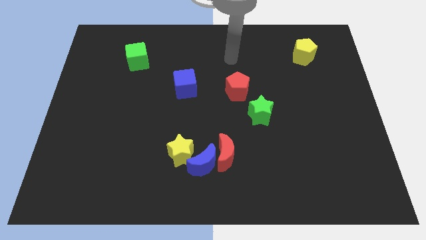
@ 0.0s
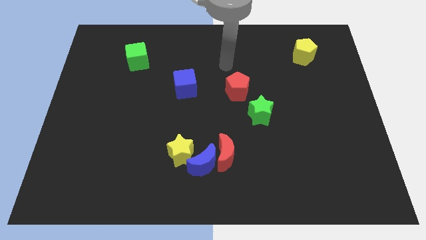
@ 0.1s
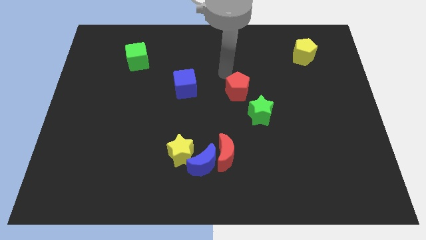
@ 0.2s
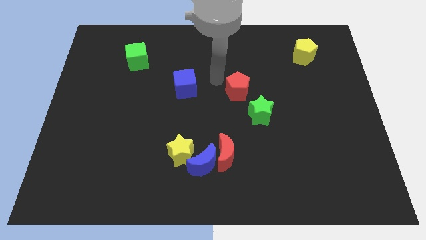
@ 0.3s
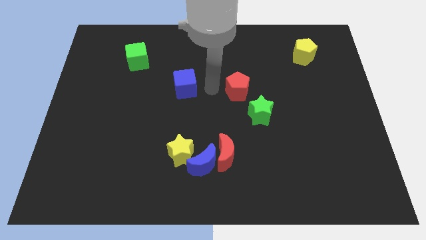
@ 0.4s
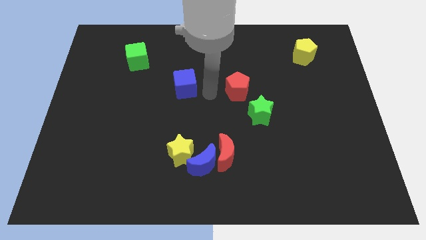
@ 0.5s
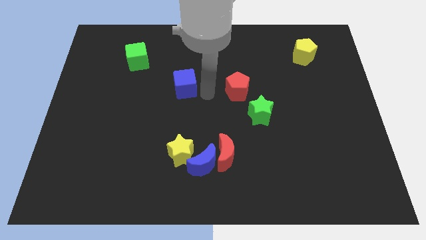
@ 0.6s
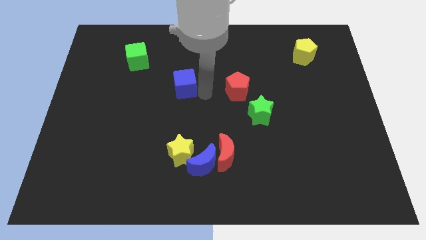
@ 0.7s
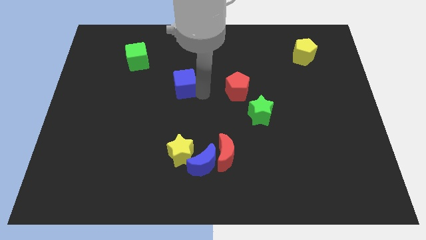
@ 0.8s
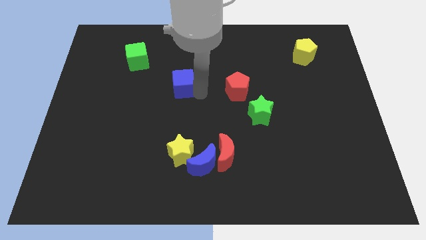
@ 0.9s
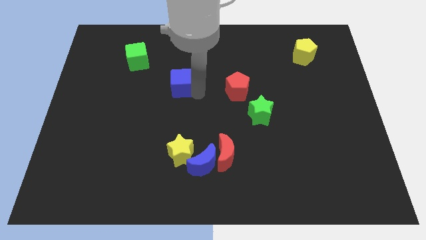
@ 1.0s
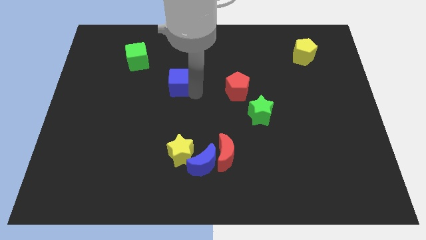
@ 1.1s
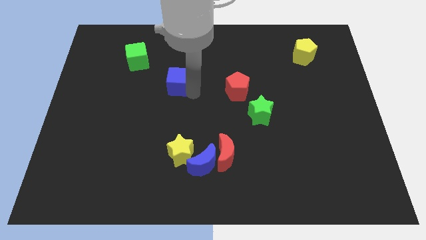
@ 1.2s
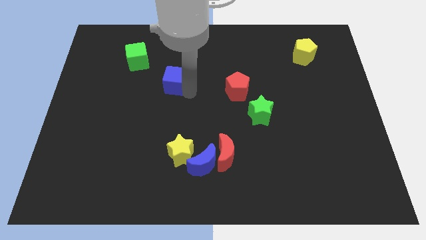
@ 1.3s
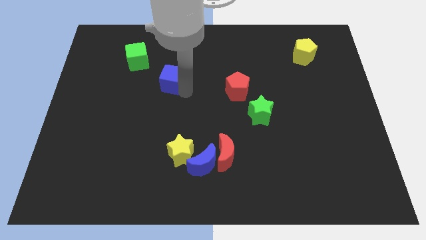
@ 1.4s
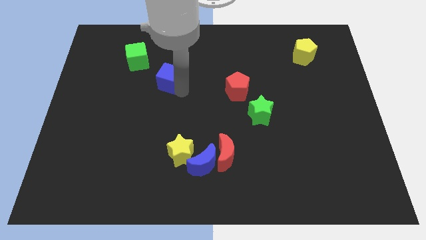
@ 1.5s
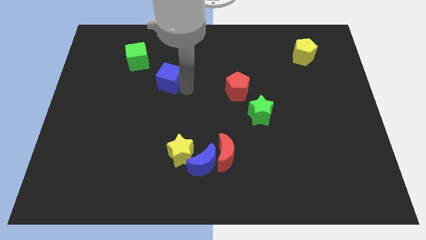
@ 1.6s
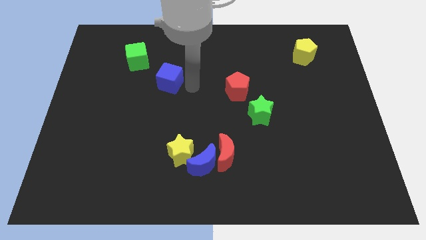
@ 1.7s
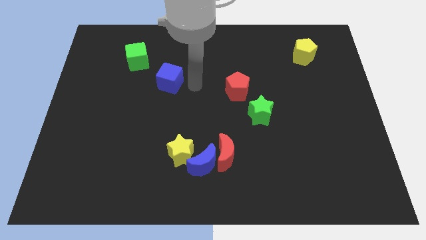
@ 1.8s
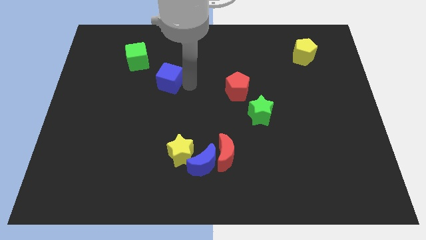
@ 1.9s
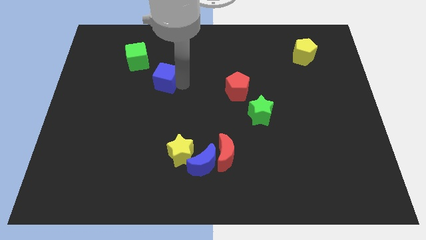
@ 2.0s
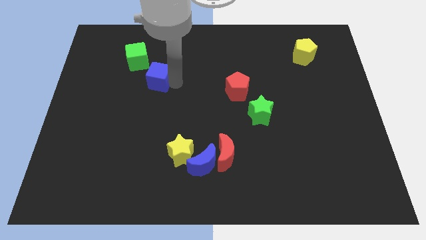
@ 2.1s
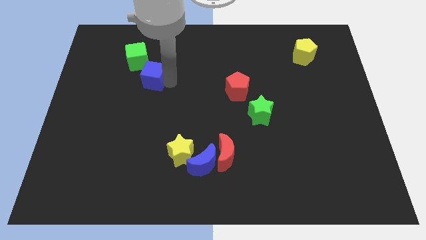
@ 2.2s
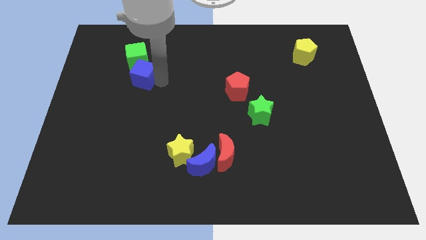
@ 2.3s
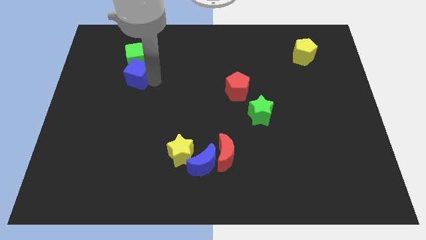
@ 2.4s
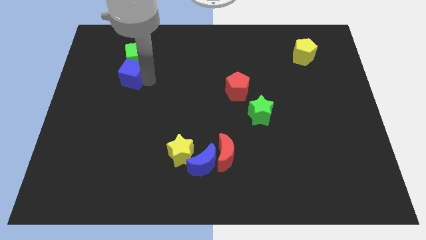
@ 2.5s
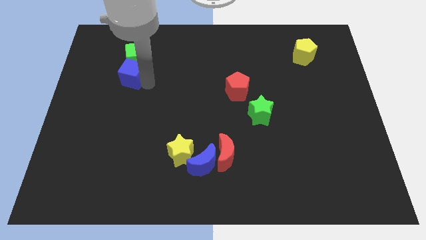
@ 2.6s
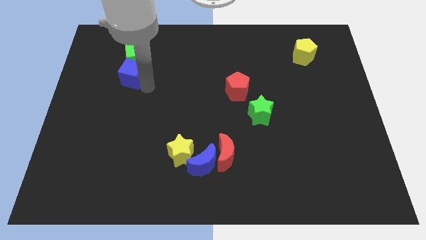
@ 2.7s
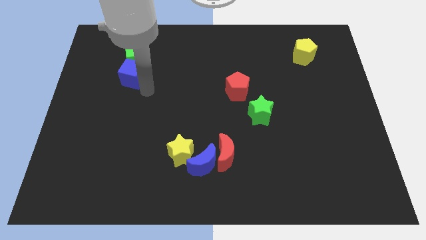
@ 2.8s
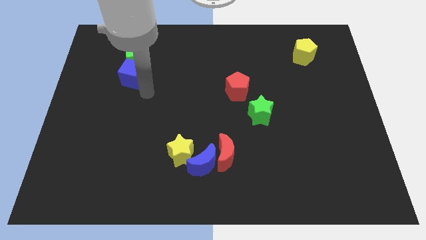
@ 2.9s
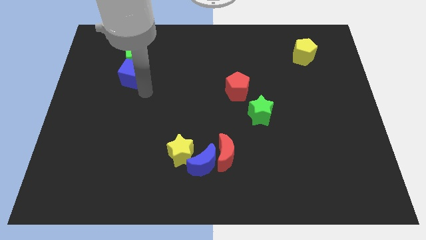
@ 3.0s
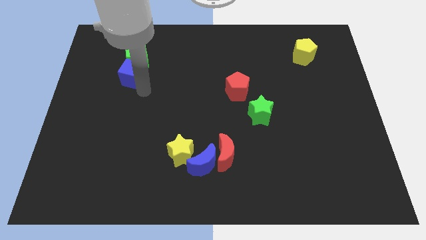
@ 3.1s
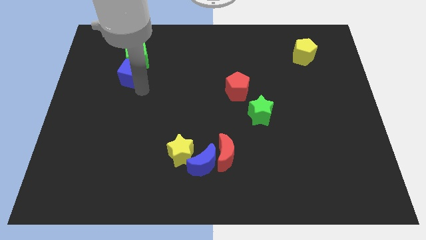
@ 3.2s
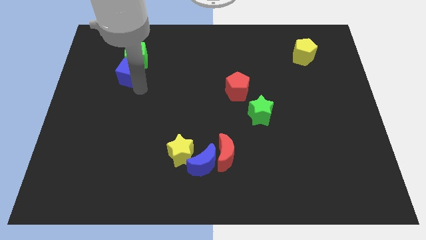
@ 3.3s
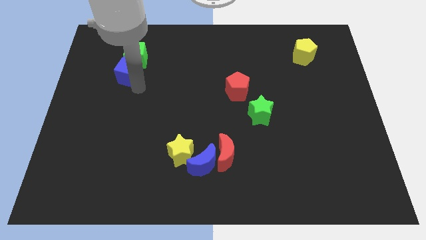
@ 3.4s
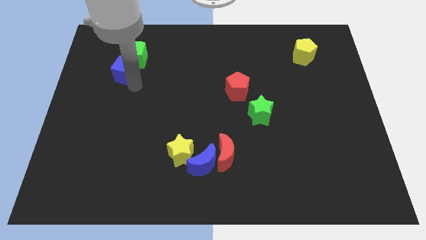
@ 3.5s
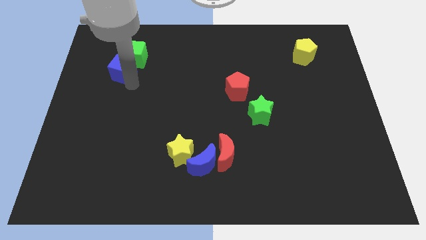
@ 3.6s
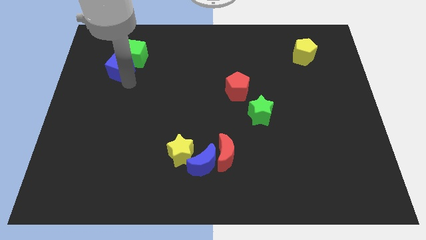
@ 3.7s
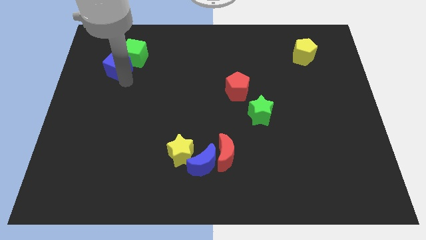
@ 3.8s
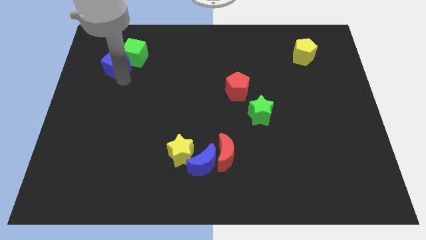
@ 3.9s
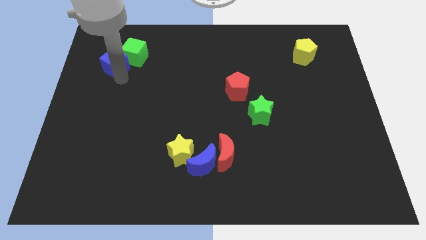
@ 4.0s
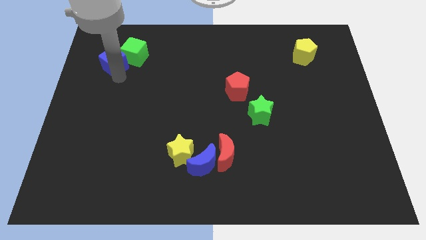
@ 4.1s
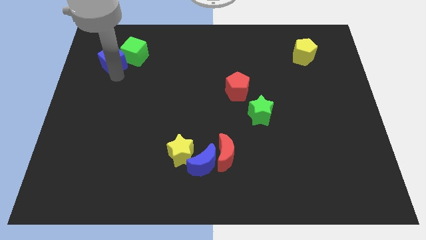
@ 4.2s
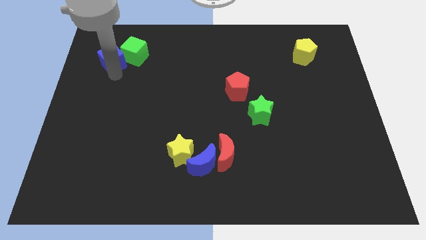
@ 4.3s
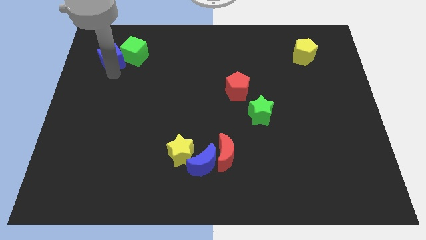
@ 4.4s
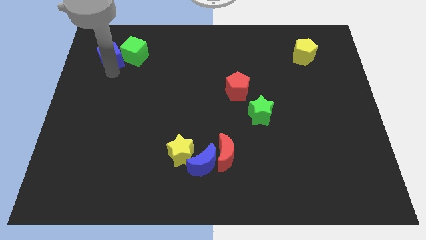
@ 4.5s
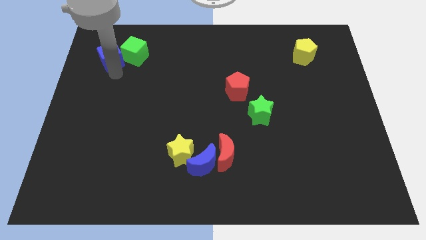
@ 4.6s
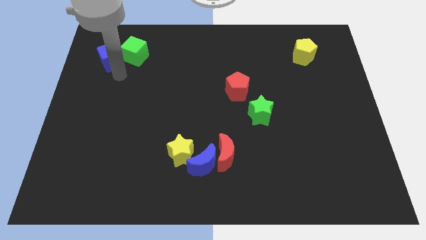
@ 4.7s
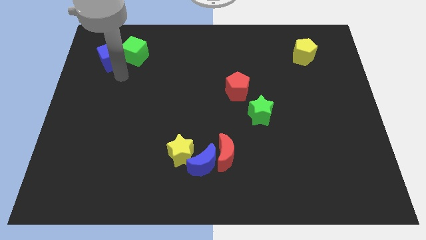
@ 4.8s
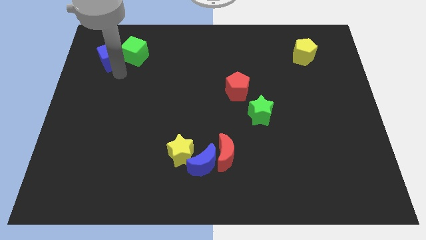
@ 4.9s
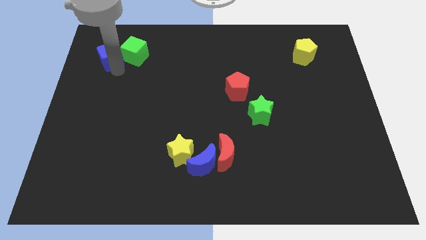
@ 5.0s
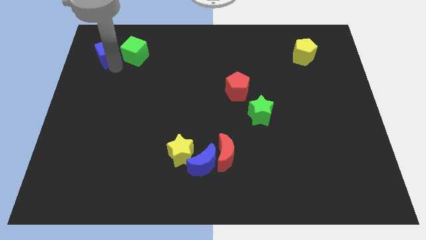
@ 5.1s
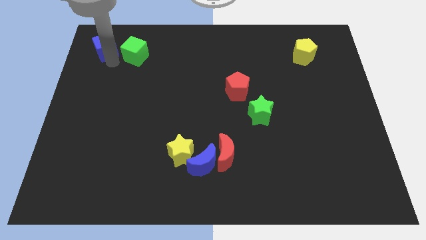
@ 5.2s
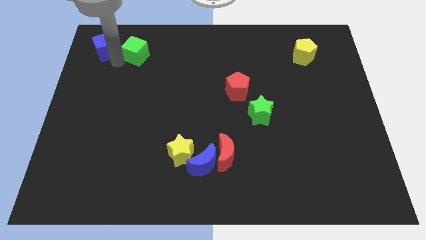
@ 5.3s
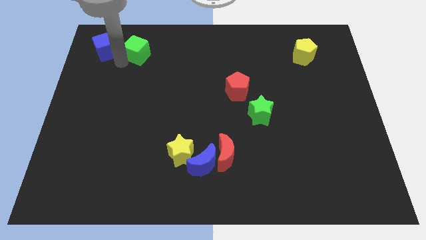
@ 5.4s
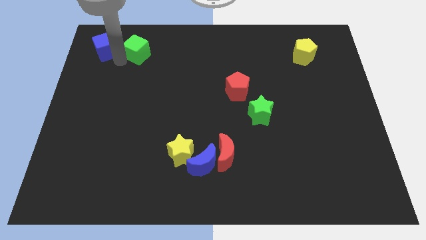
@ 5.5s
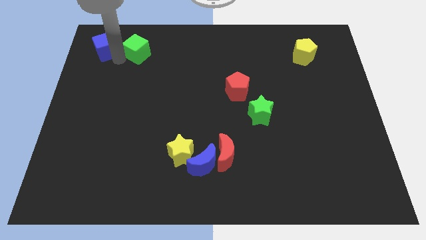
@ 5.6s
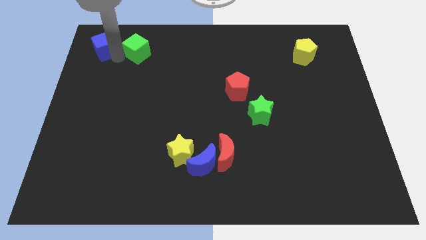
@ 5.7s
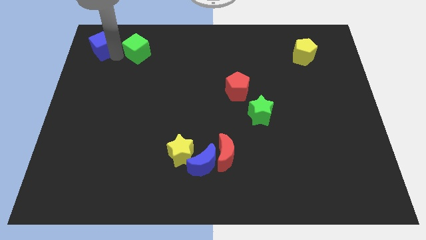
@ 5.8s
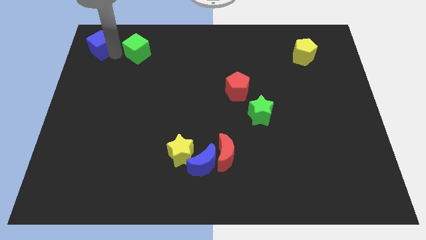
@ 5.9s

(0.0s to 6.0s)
slide the blue cube to the upper left corner

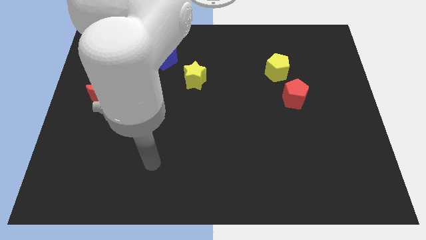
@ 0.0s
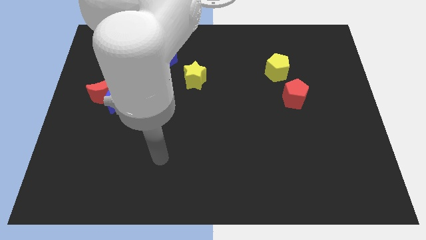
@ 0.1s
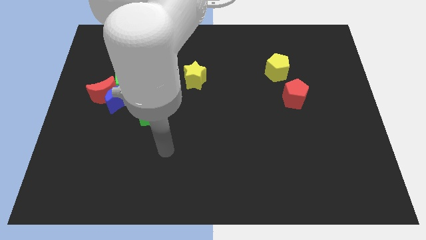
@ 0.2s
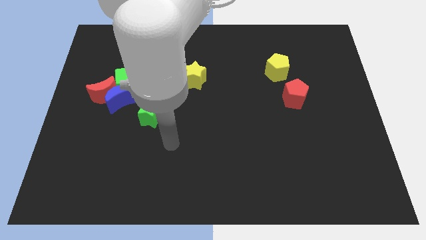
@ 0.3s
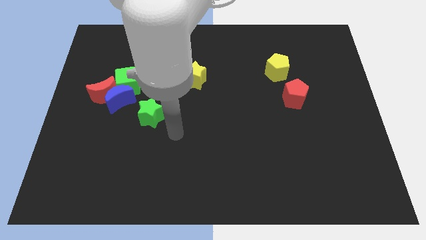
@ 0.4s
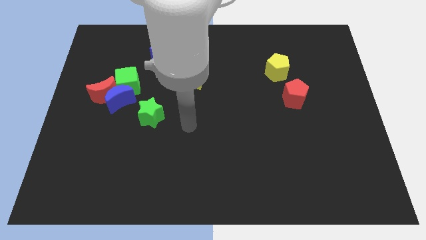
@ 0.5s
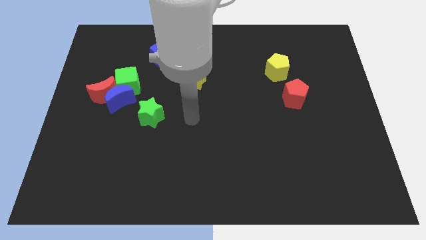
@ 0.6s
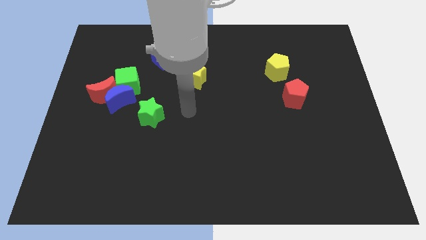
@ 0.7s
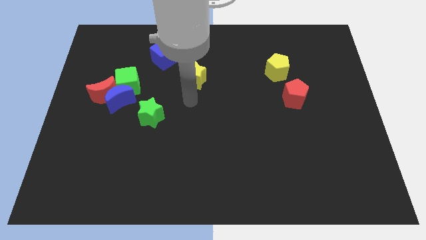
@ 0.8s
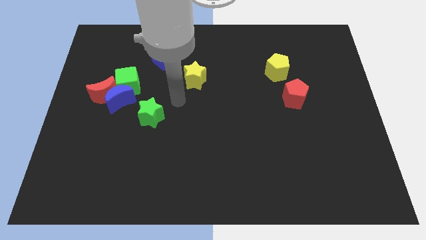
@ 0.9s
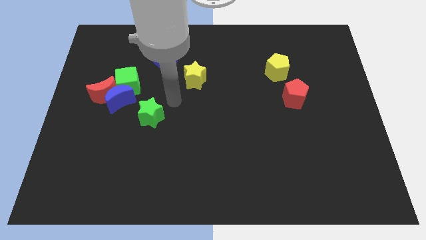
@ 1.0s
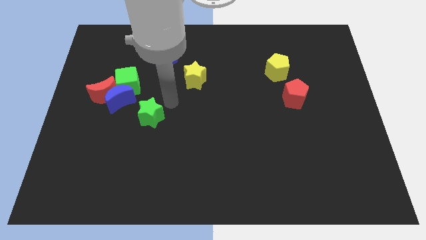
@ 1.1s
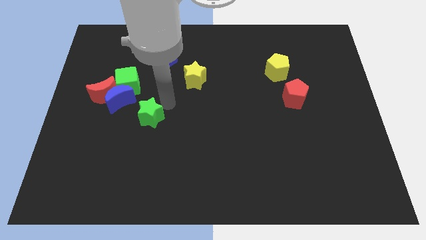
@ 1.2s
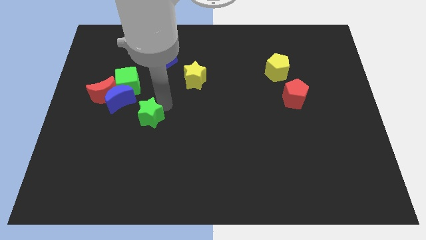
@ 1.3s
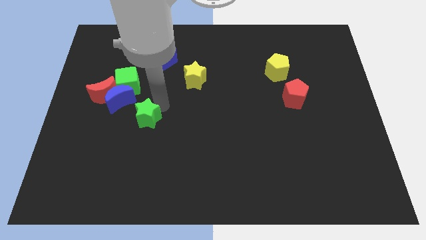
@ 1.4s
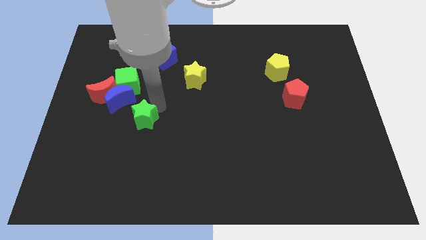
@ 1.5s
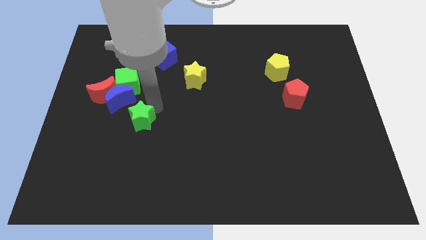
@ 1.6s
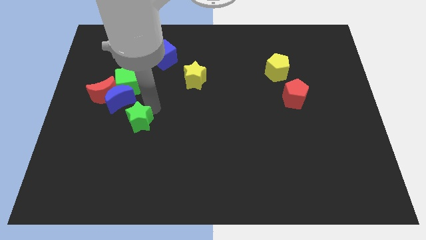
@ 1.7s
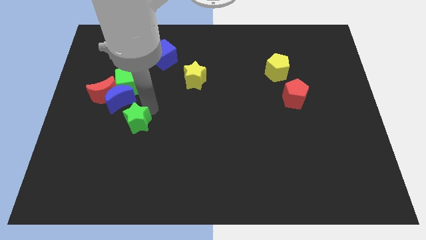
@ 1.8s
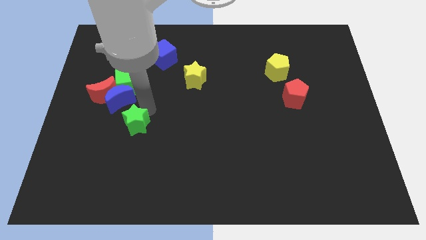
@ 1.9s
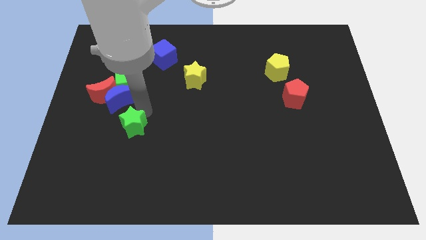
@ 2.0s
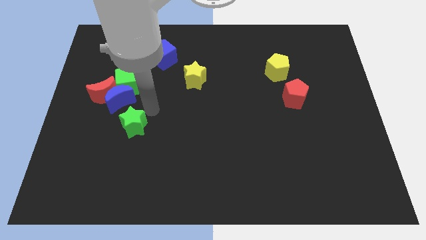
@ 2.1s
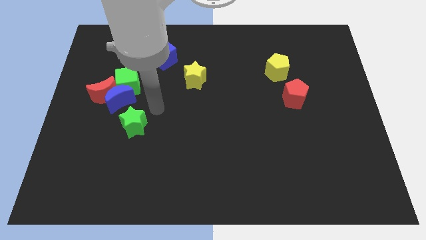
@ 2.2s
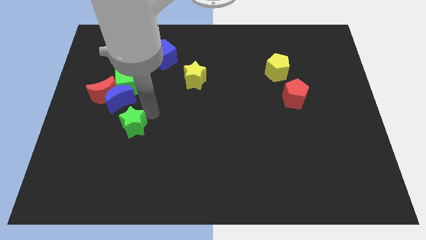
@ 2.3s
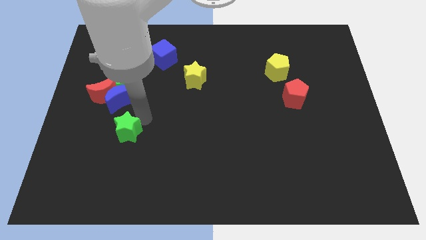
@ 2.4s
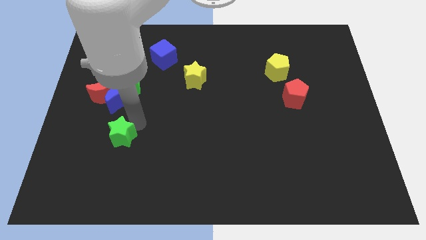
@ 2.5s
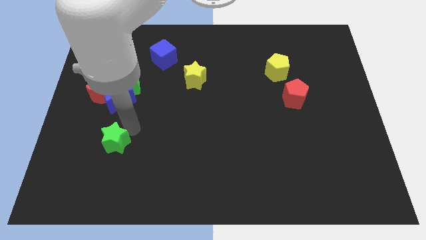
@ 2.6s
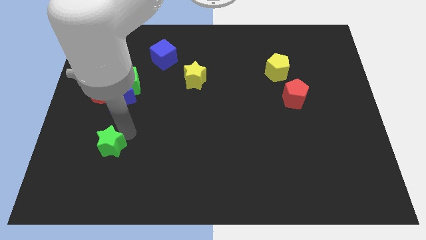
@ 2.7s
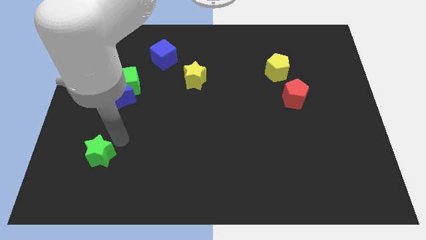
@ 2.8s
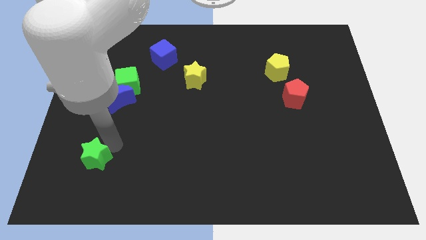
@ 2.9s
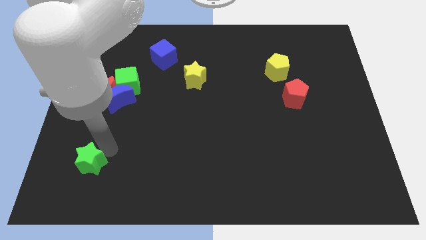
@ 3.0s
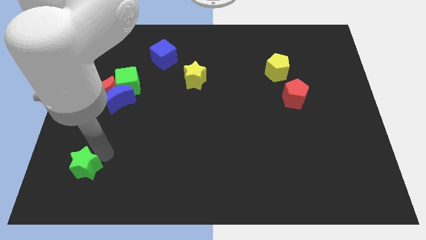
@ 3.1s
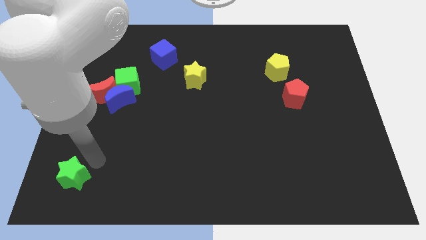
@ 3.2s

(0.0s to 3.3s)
slide the green star to the bottom left
